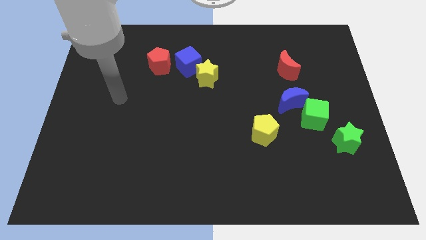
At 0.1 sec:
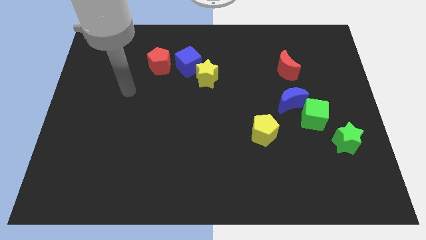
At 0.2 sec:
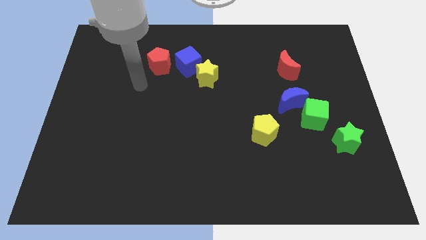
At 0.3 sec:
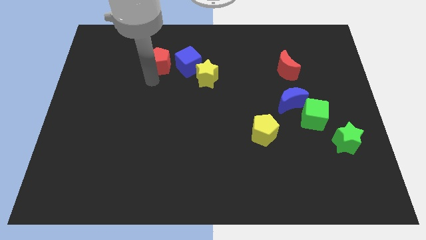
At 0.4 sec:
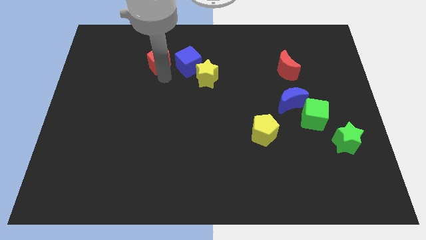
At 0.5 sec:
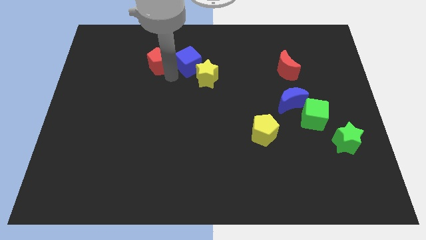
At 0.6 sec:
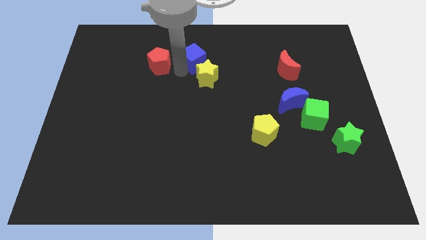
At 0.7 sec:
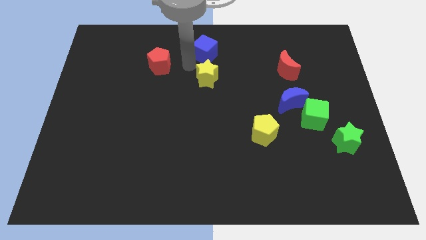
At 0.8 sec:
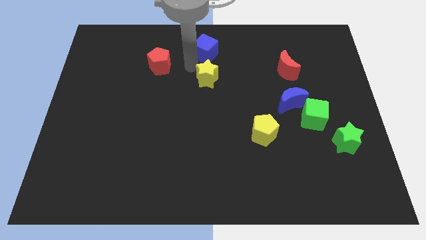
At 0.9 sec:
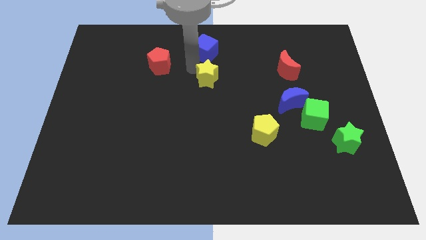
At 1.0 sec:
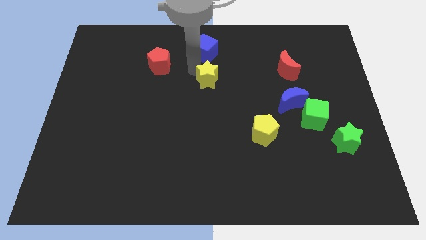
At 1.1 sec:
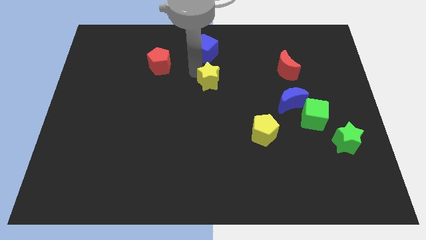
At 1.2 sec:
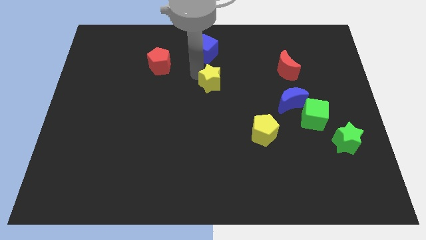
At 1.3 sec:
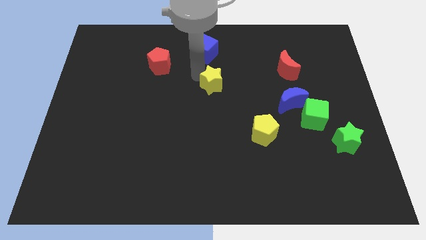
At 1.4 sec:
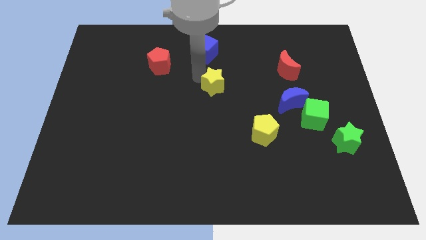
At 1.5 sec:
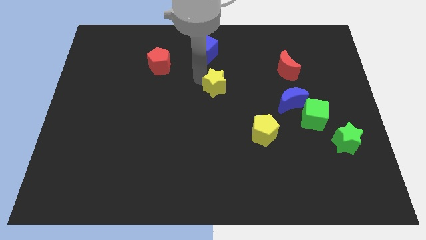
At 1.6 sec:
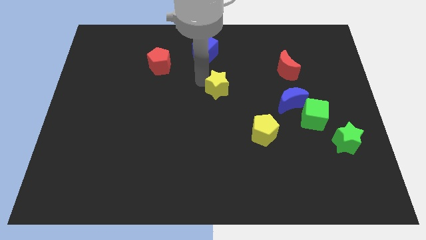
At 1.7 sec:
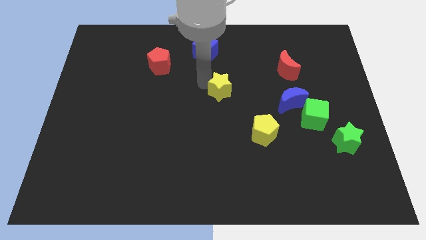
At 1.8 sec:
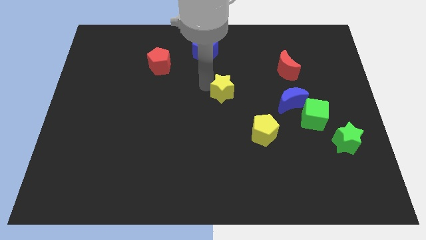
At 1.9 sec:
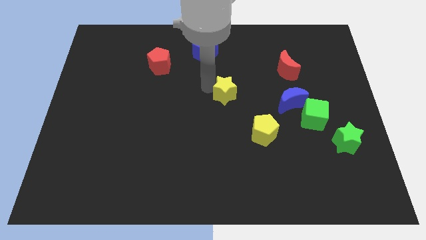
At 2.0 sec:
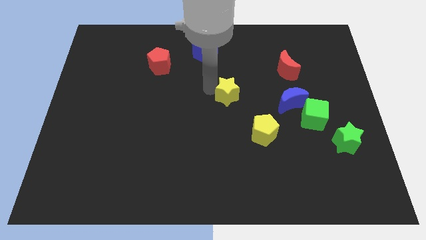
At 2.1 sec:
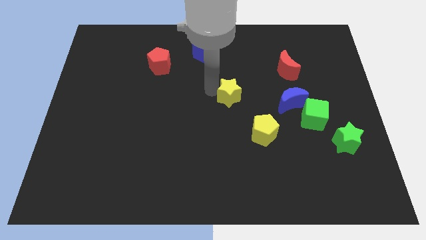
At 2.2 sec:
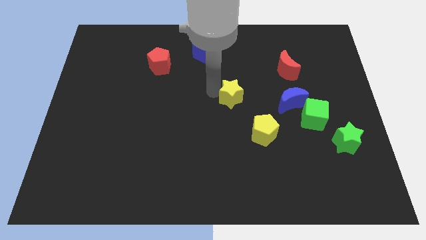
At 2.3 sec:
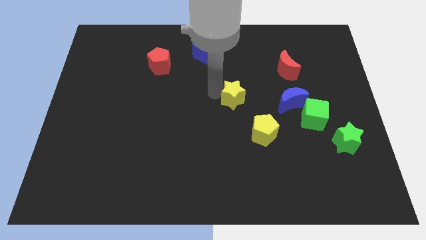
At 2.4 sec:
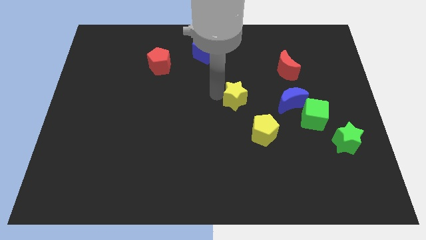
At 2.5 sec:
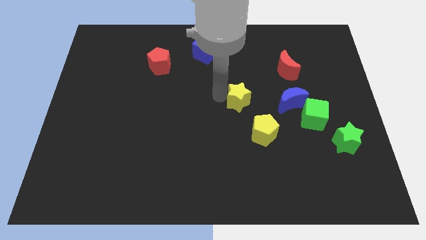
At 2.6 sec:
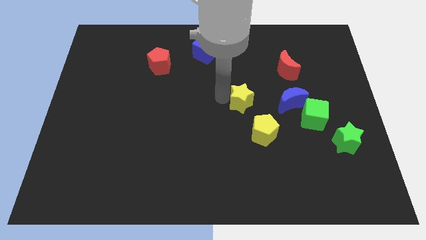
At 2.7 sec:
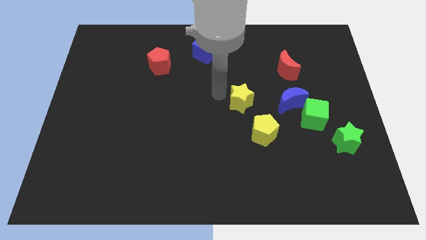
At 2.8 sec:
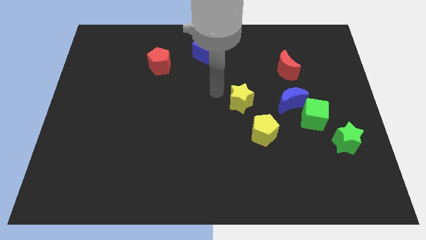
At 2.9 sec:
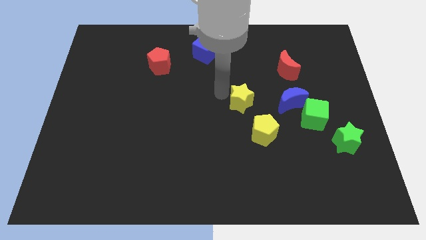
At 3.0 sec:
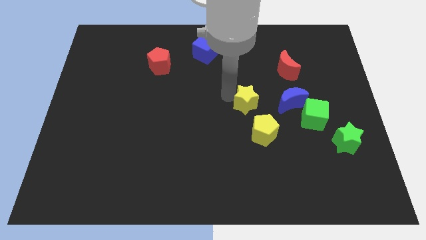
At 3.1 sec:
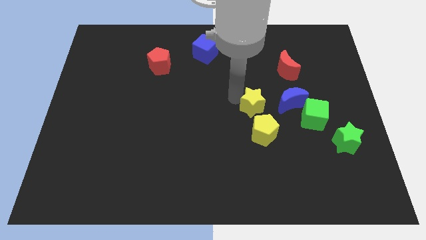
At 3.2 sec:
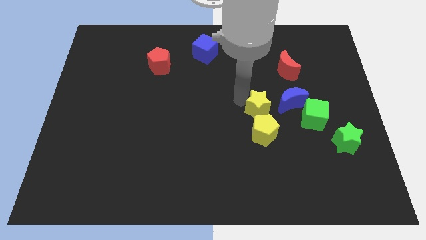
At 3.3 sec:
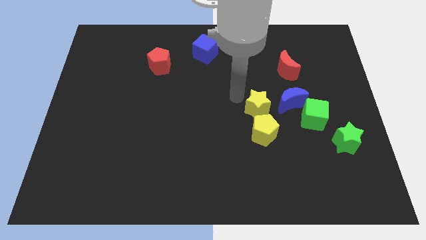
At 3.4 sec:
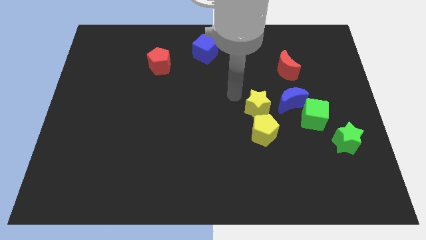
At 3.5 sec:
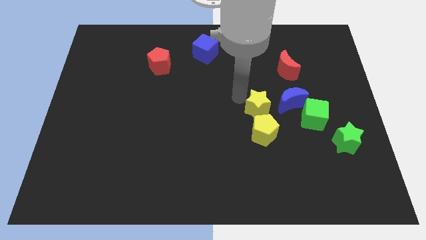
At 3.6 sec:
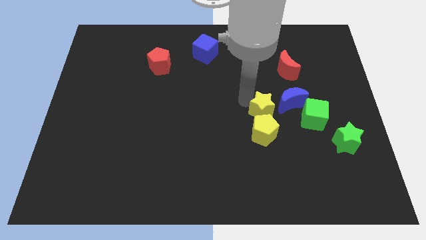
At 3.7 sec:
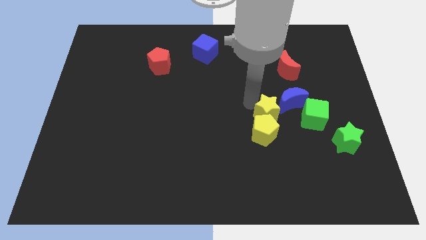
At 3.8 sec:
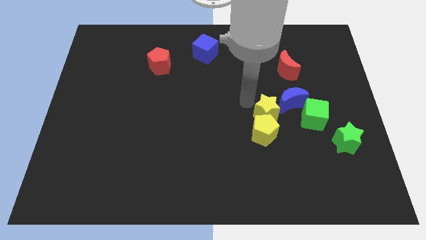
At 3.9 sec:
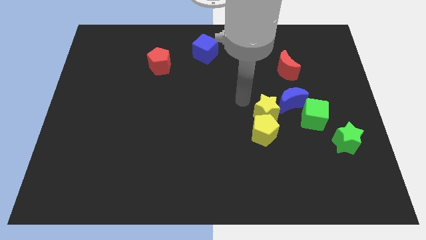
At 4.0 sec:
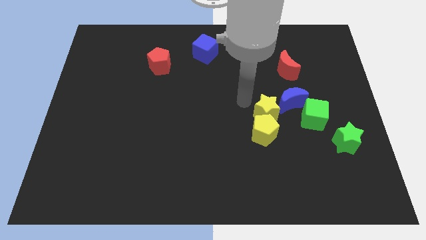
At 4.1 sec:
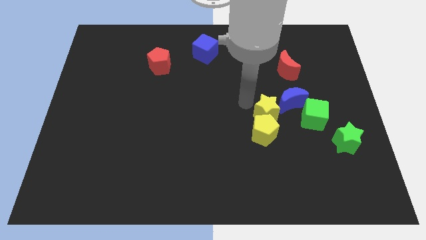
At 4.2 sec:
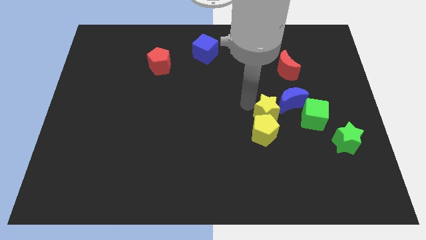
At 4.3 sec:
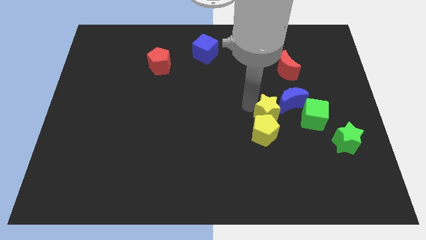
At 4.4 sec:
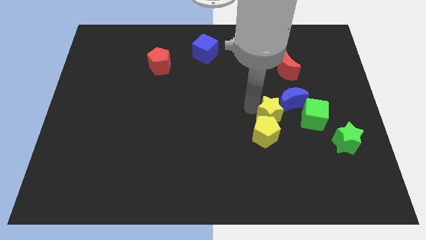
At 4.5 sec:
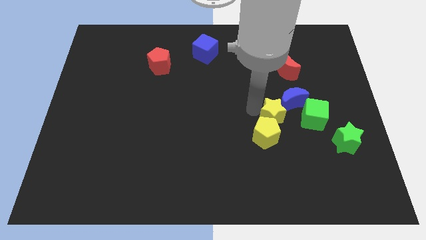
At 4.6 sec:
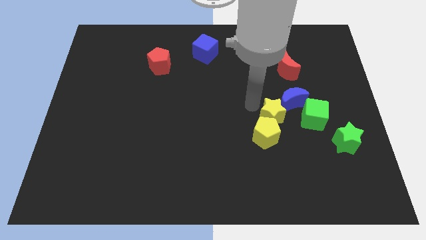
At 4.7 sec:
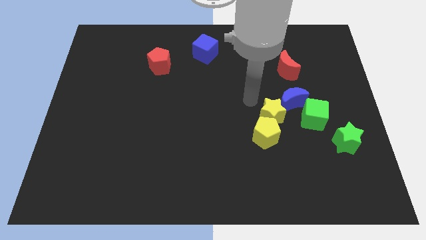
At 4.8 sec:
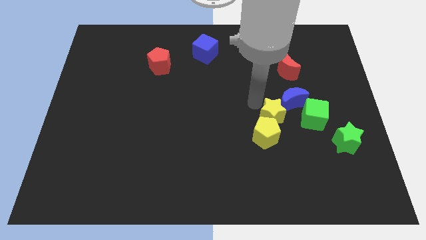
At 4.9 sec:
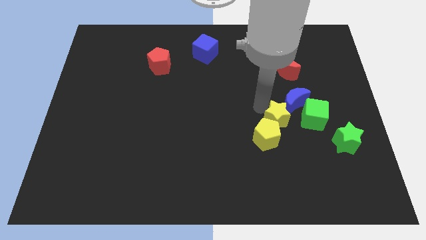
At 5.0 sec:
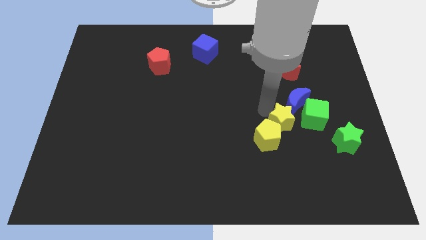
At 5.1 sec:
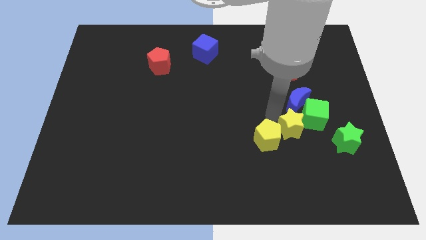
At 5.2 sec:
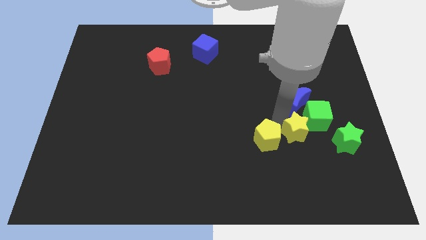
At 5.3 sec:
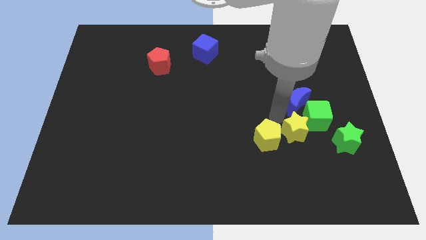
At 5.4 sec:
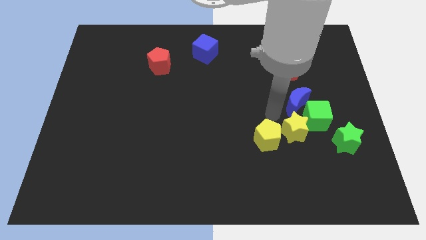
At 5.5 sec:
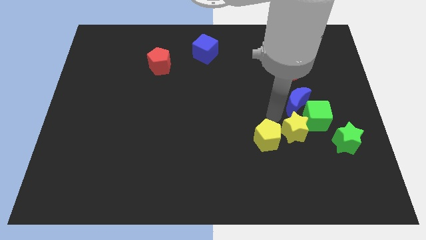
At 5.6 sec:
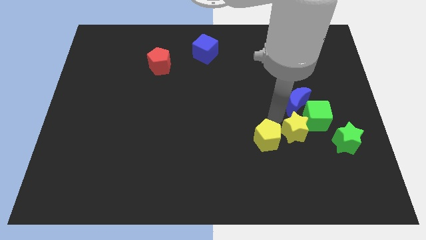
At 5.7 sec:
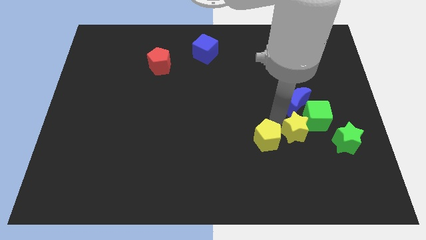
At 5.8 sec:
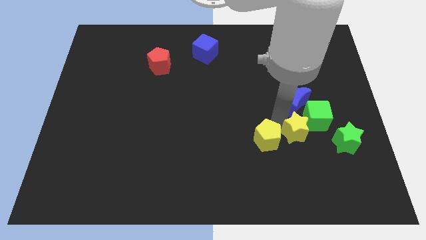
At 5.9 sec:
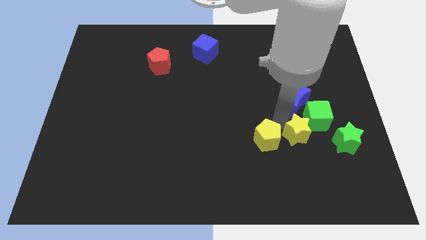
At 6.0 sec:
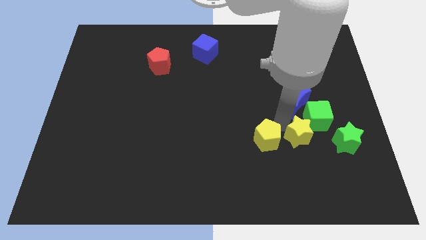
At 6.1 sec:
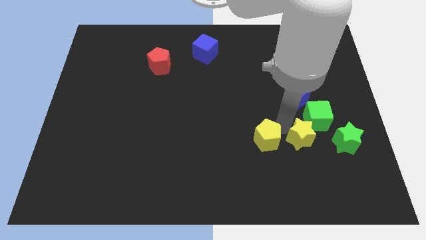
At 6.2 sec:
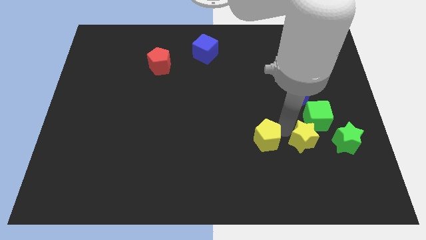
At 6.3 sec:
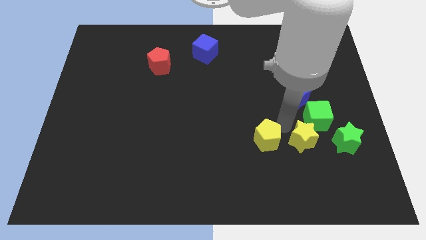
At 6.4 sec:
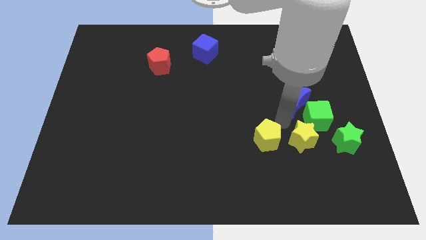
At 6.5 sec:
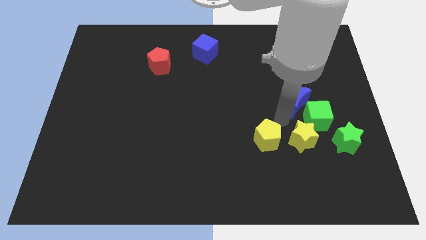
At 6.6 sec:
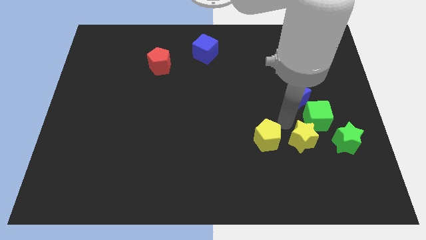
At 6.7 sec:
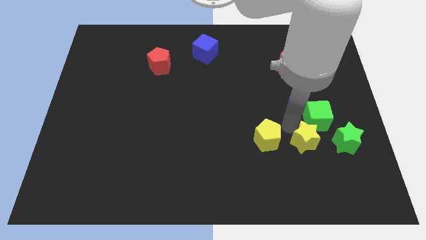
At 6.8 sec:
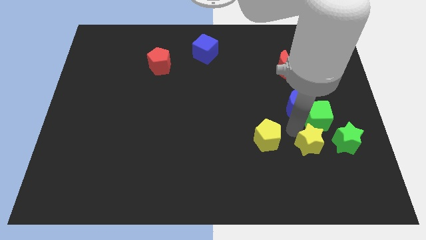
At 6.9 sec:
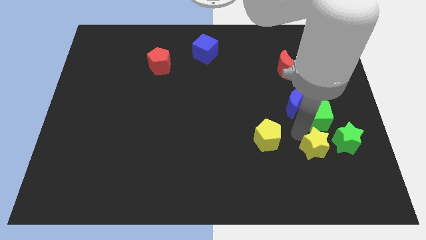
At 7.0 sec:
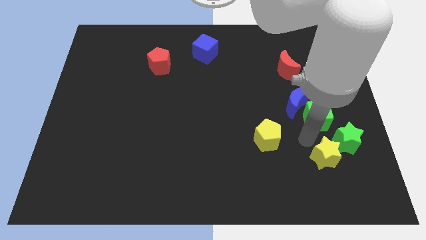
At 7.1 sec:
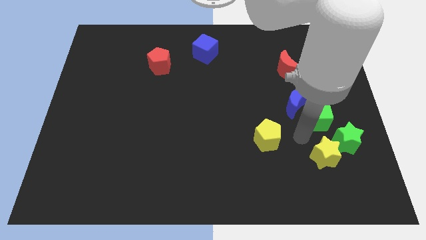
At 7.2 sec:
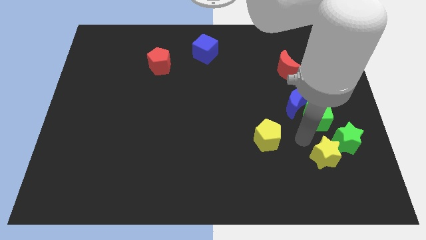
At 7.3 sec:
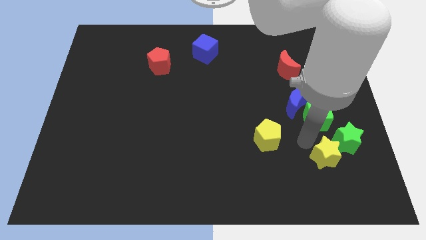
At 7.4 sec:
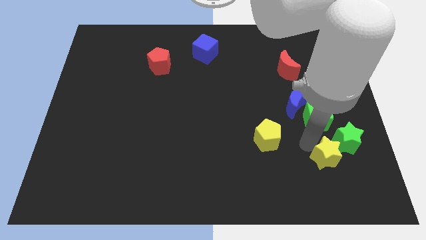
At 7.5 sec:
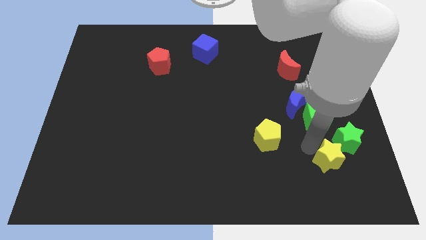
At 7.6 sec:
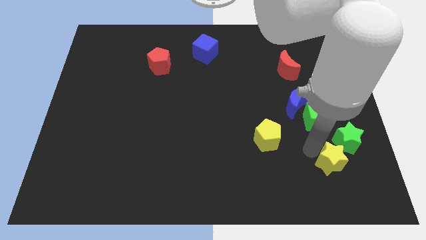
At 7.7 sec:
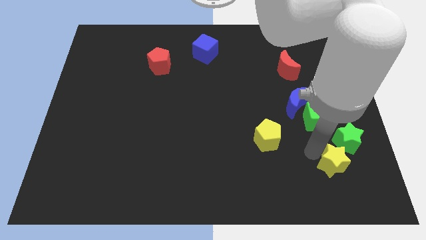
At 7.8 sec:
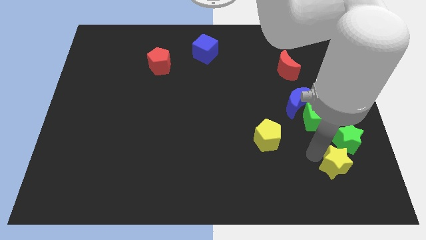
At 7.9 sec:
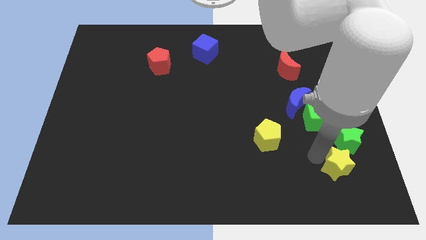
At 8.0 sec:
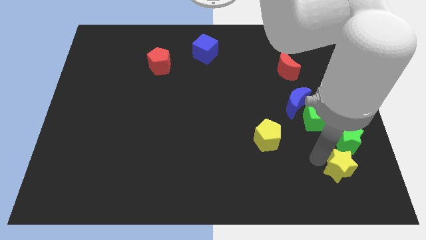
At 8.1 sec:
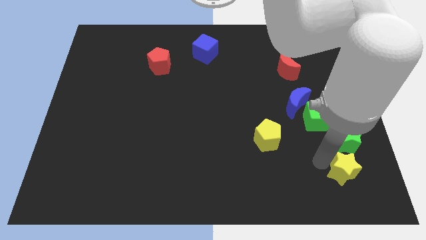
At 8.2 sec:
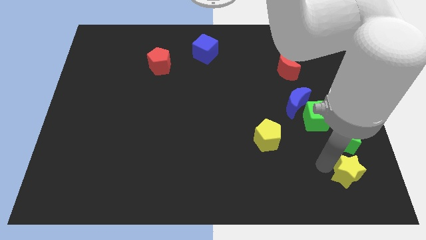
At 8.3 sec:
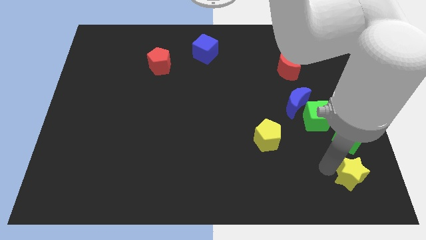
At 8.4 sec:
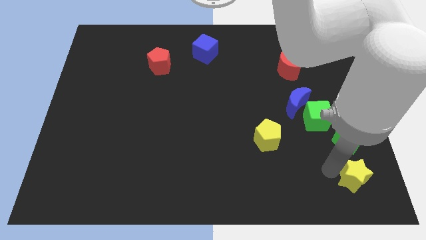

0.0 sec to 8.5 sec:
slide the yellow star to the lower right corner
